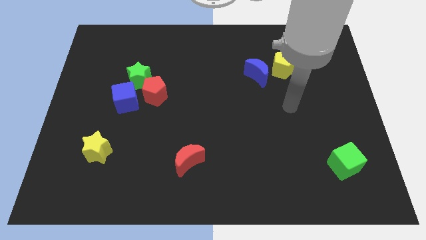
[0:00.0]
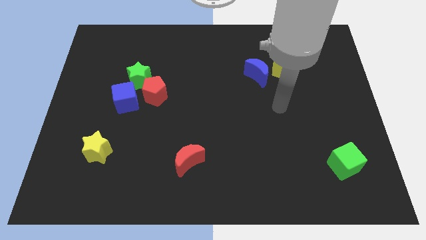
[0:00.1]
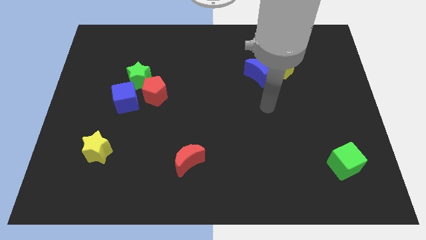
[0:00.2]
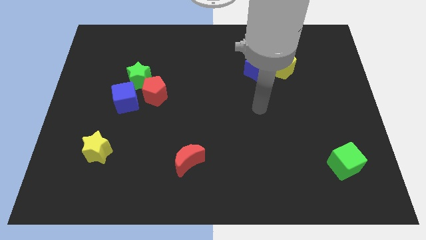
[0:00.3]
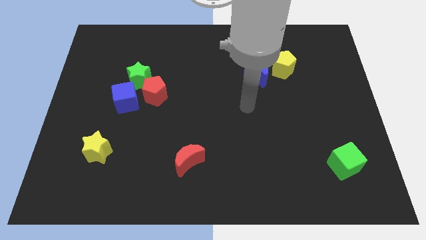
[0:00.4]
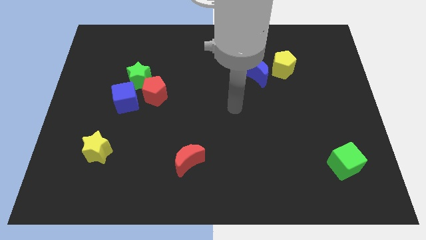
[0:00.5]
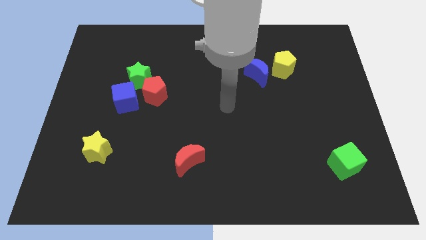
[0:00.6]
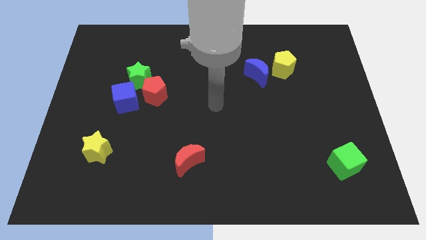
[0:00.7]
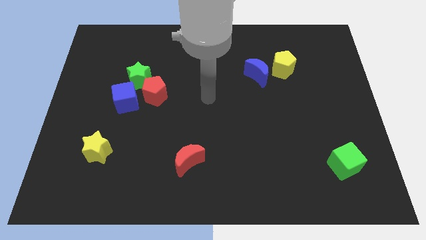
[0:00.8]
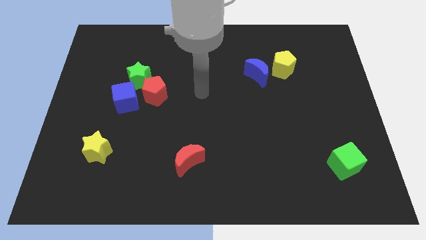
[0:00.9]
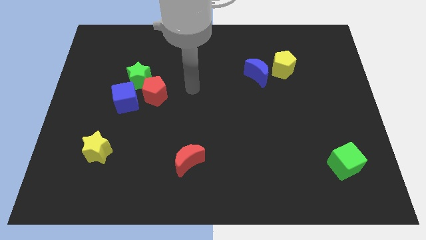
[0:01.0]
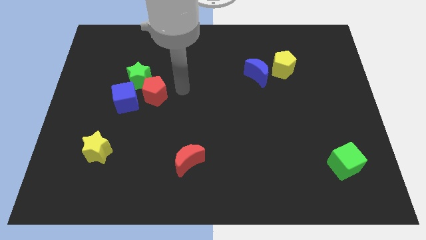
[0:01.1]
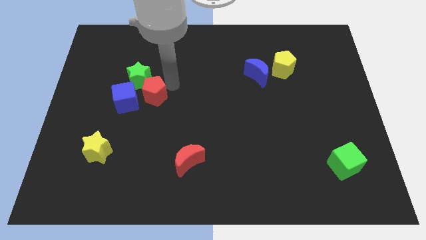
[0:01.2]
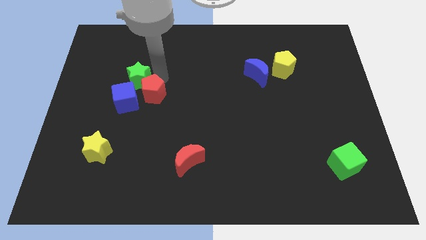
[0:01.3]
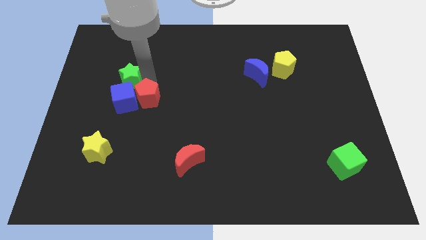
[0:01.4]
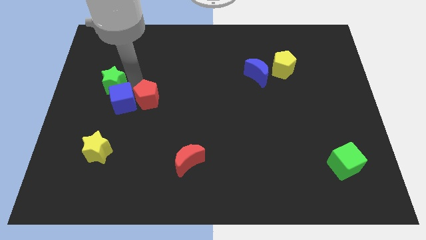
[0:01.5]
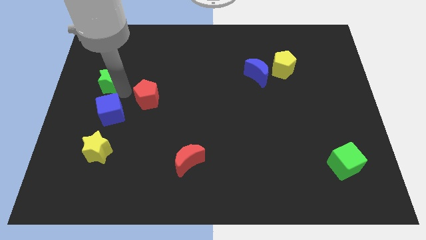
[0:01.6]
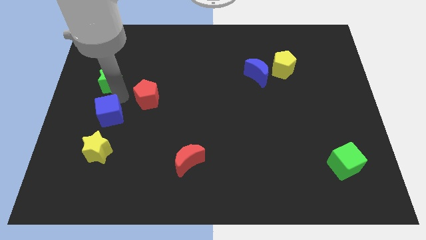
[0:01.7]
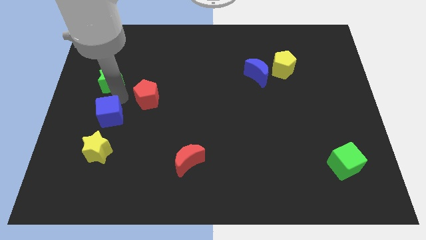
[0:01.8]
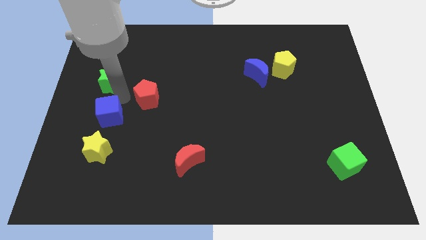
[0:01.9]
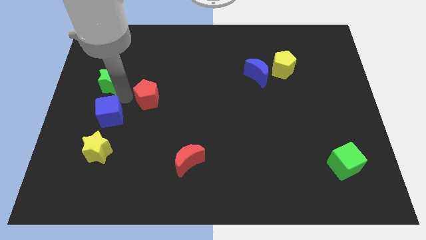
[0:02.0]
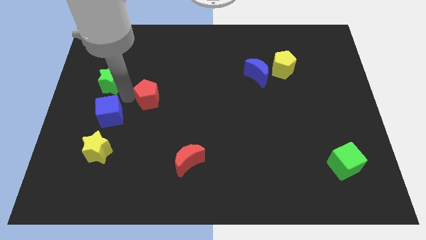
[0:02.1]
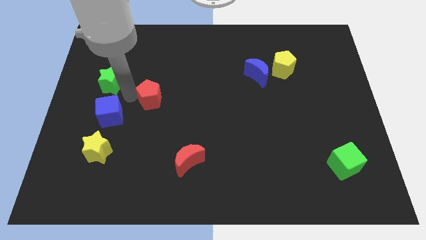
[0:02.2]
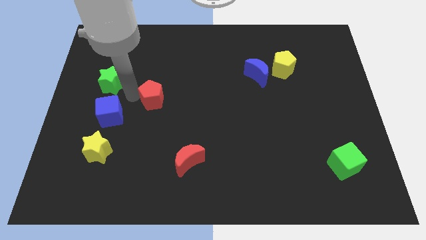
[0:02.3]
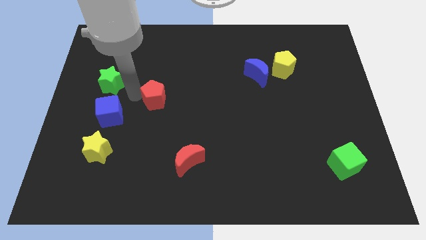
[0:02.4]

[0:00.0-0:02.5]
separate the red pentagon from the green star and blue cube

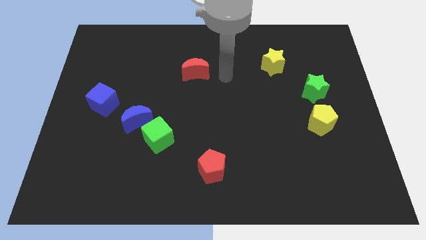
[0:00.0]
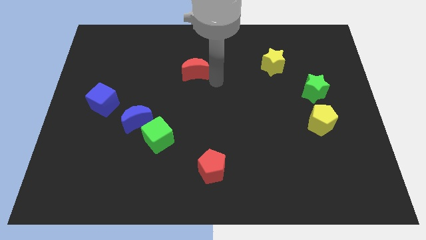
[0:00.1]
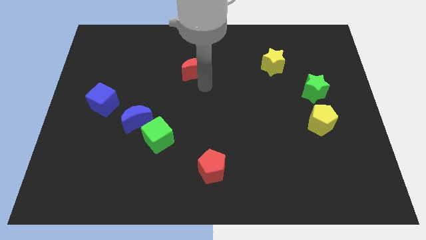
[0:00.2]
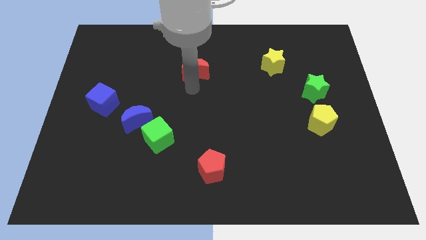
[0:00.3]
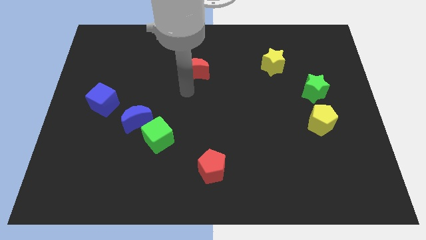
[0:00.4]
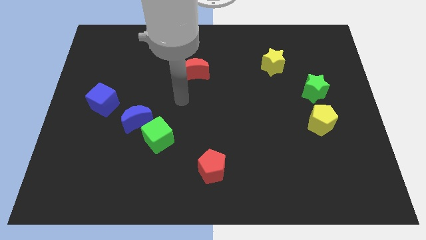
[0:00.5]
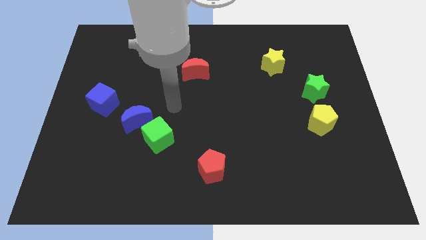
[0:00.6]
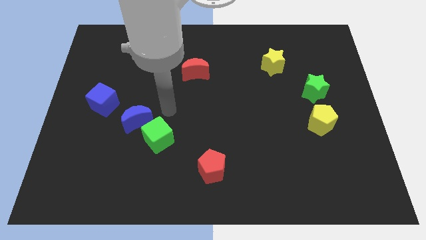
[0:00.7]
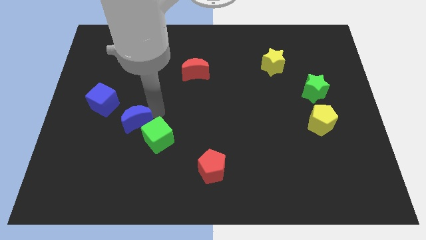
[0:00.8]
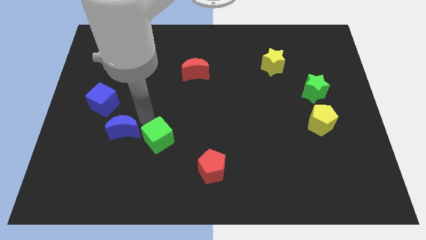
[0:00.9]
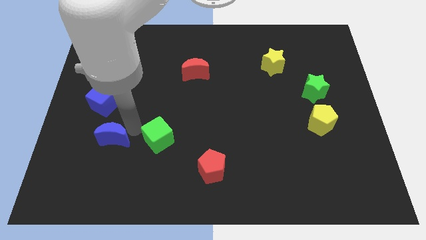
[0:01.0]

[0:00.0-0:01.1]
separate the green cube from the blue moon

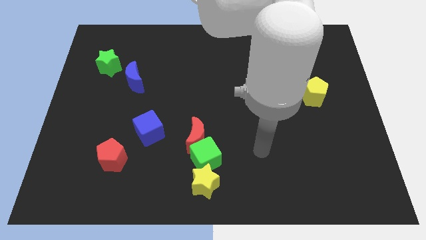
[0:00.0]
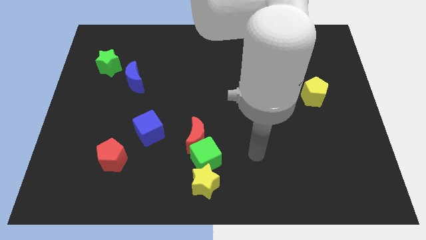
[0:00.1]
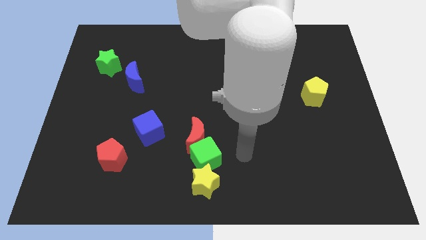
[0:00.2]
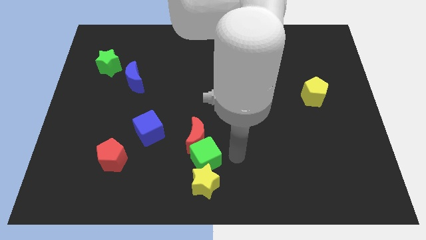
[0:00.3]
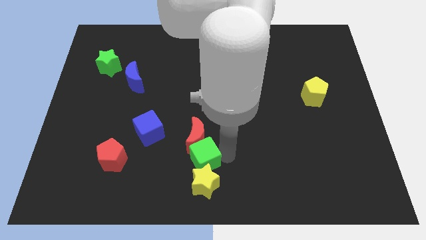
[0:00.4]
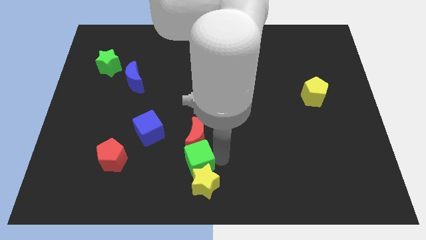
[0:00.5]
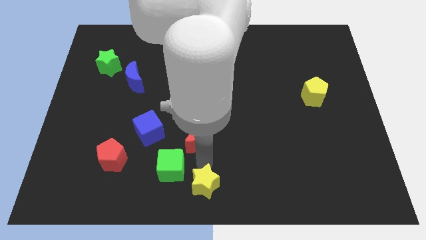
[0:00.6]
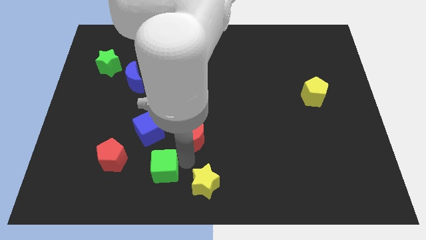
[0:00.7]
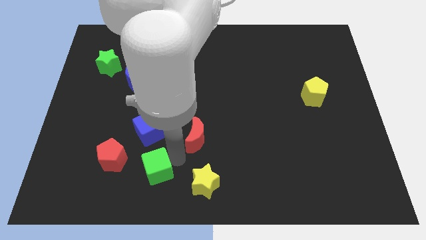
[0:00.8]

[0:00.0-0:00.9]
separate the red moon from the green cube

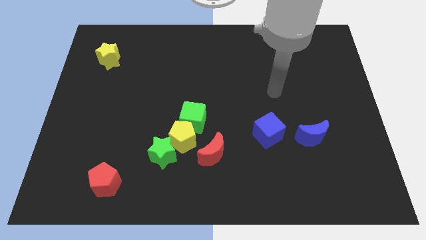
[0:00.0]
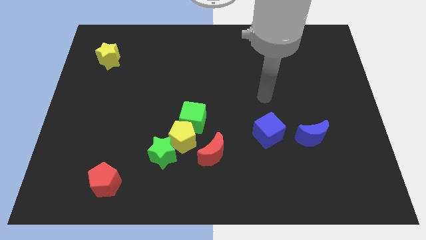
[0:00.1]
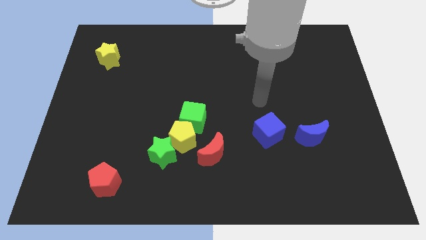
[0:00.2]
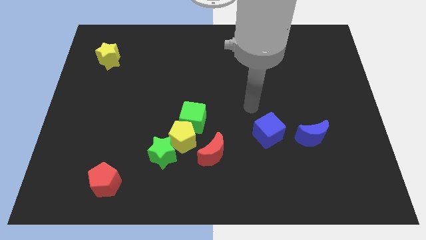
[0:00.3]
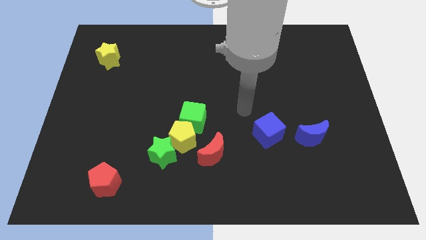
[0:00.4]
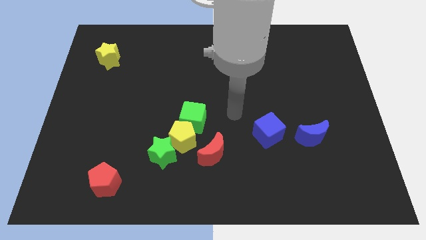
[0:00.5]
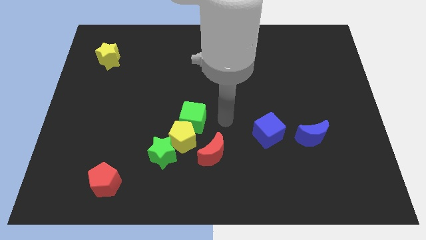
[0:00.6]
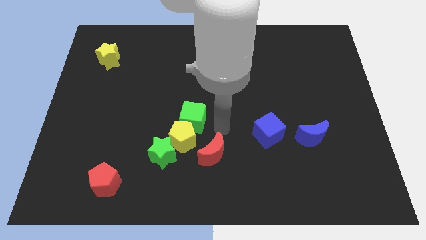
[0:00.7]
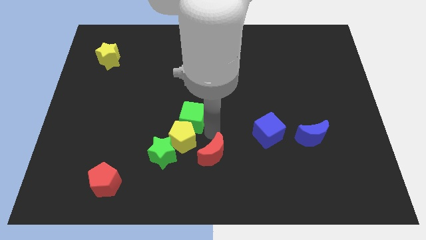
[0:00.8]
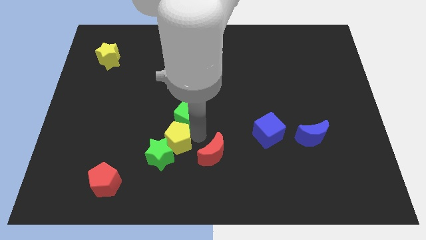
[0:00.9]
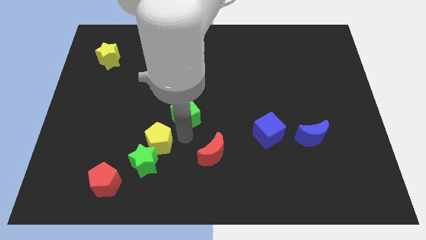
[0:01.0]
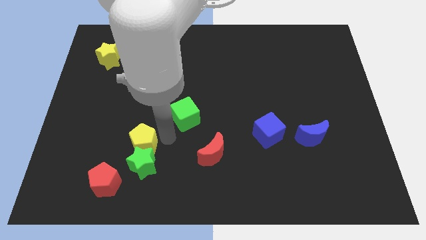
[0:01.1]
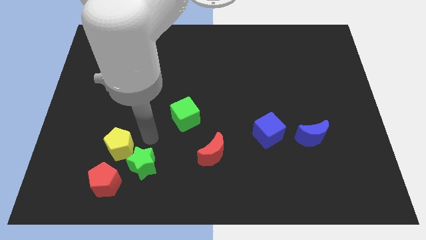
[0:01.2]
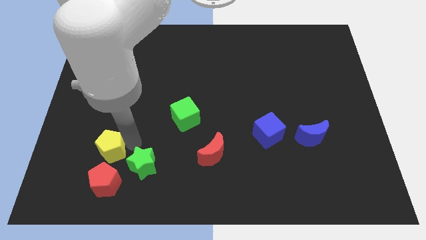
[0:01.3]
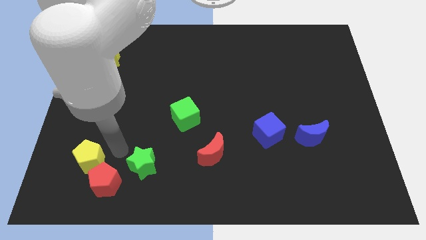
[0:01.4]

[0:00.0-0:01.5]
move the green star away from the yellow pentagon

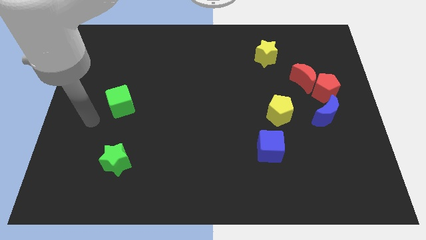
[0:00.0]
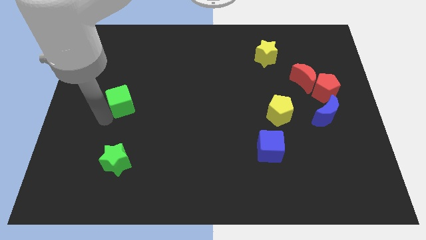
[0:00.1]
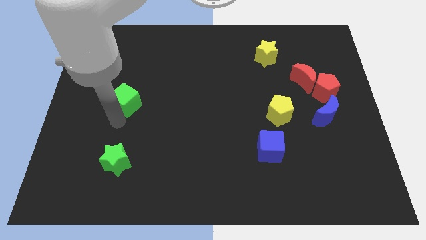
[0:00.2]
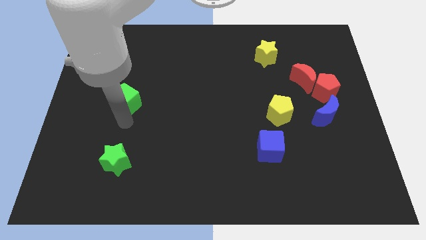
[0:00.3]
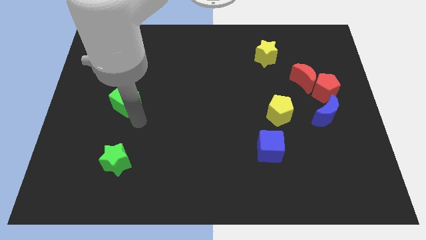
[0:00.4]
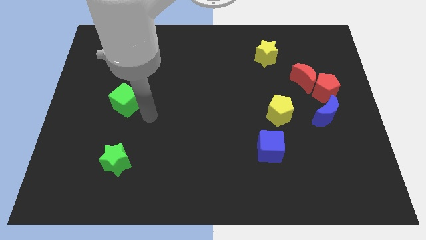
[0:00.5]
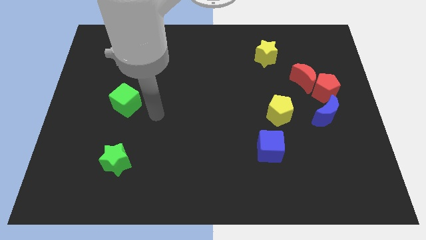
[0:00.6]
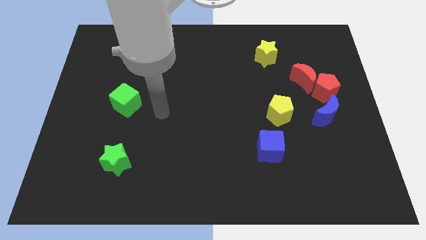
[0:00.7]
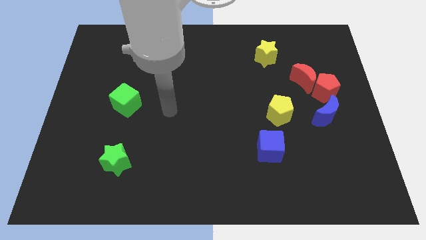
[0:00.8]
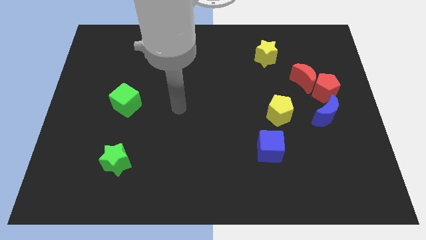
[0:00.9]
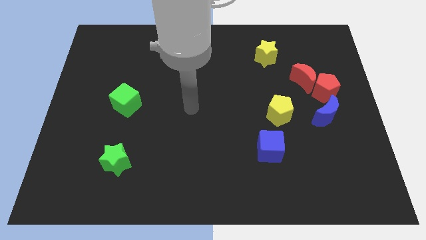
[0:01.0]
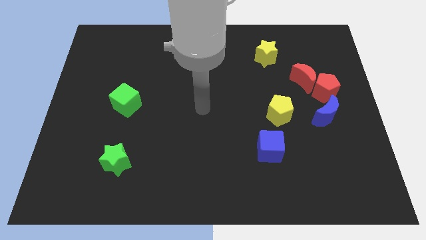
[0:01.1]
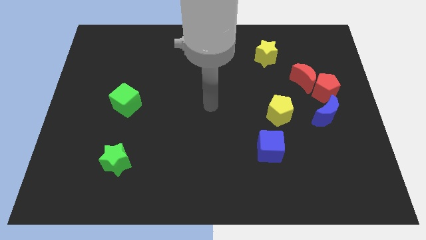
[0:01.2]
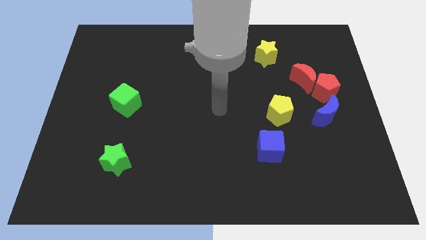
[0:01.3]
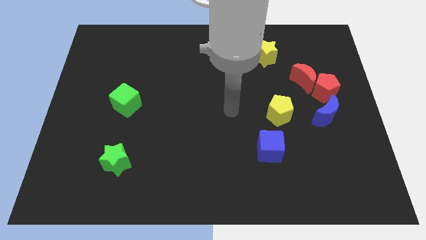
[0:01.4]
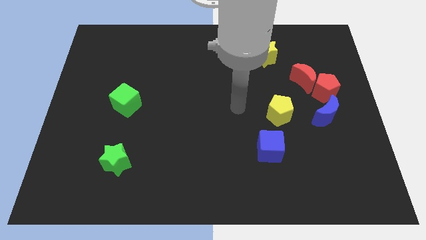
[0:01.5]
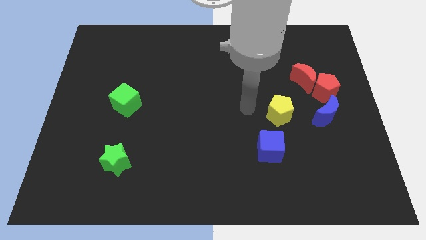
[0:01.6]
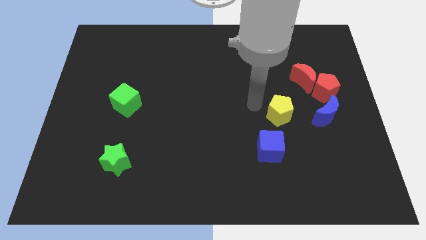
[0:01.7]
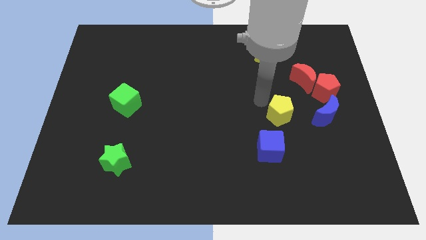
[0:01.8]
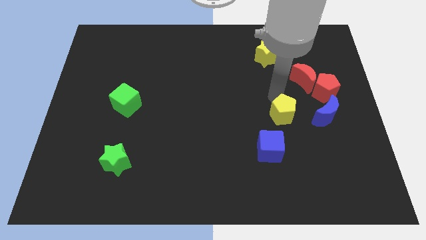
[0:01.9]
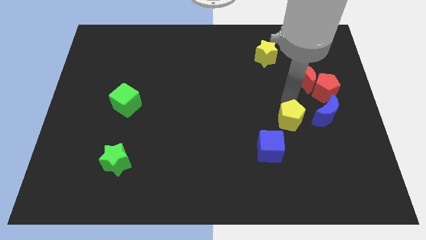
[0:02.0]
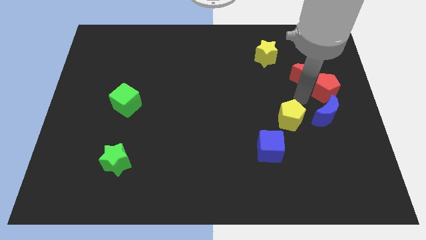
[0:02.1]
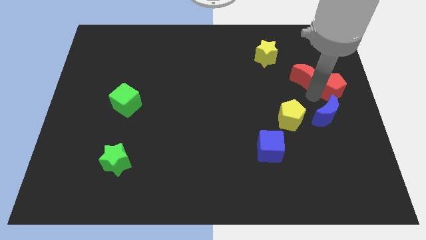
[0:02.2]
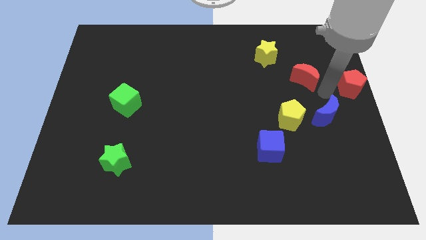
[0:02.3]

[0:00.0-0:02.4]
move the red moon away from the red pentagon

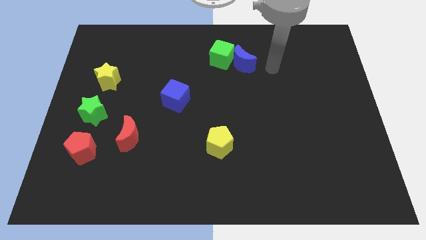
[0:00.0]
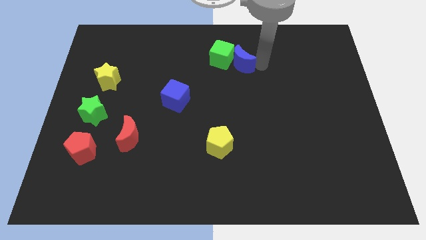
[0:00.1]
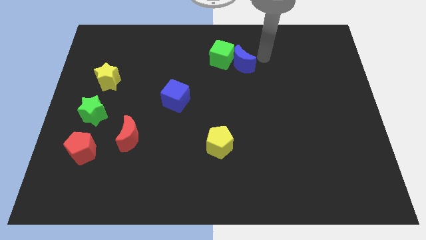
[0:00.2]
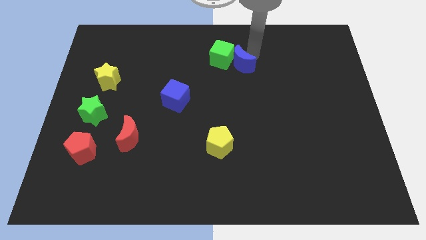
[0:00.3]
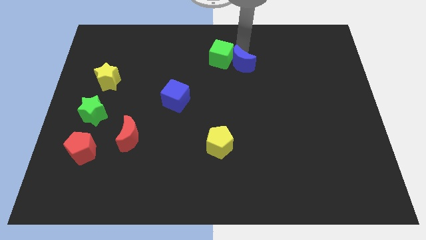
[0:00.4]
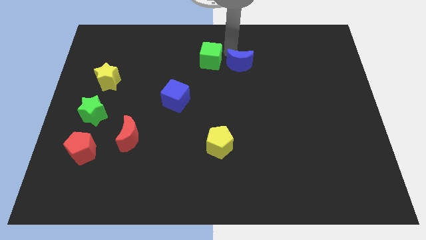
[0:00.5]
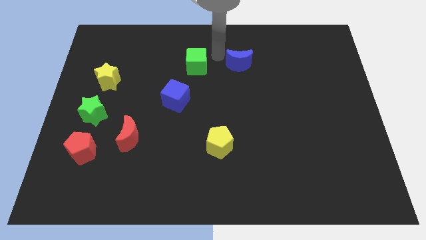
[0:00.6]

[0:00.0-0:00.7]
pull the blue moon apart from the green cube

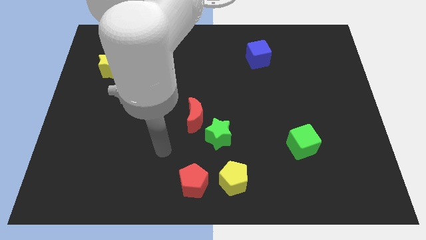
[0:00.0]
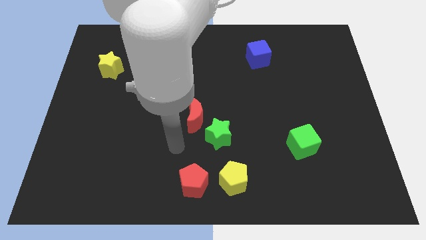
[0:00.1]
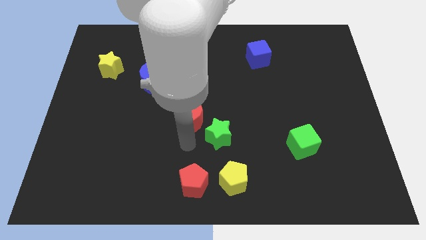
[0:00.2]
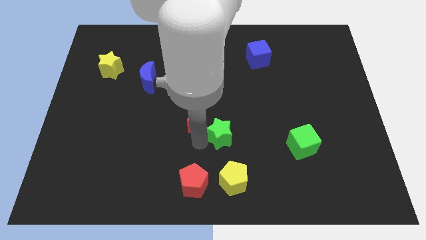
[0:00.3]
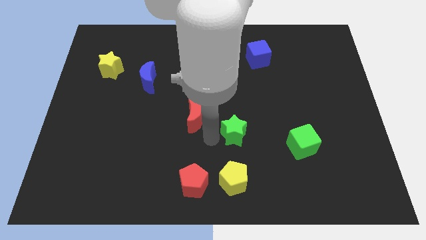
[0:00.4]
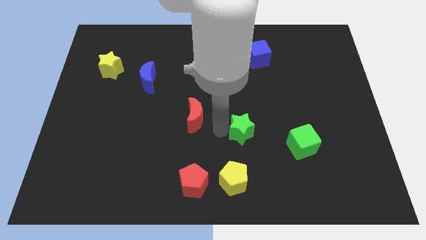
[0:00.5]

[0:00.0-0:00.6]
separate the red moon from the green star
